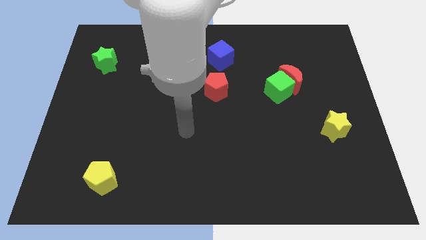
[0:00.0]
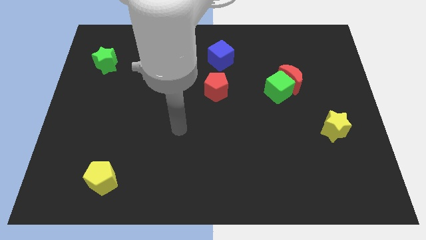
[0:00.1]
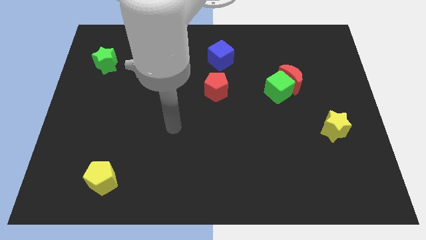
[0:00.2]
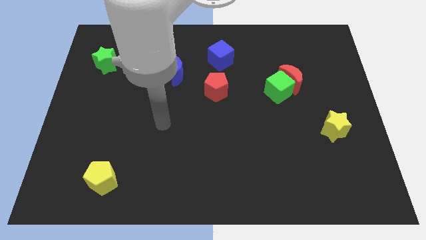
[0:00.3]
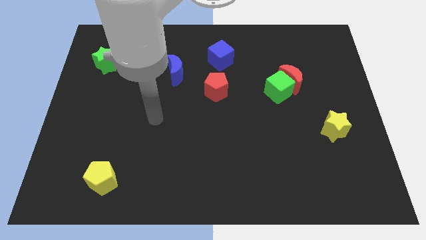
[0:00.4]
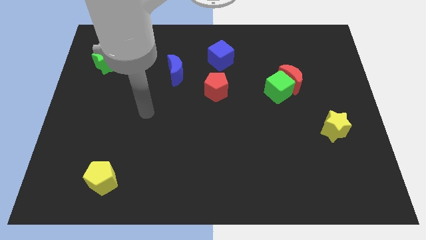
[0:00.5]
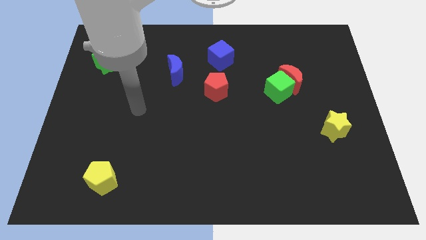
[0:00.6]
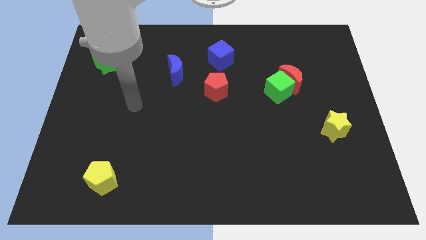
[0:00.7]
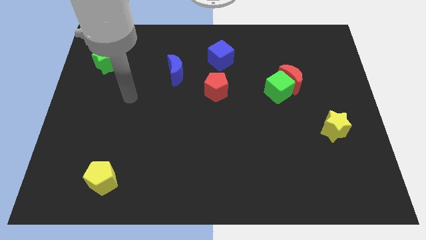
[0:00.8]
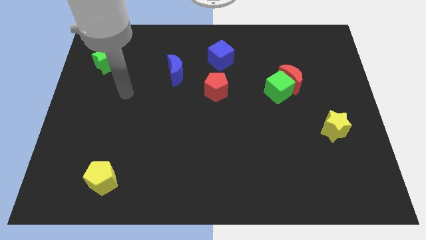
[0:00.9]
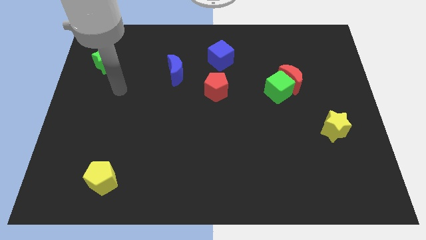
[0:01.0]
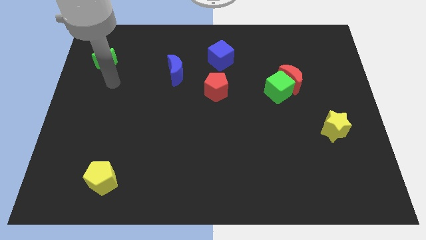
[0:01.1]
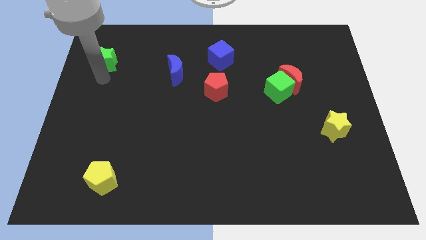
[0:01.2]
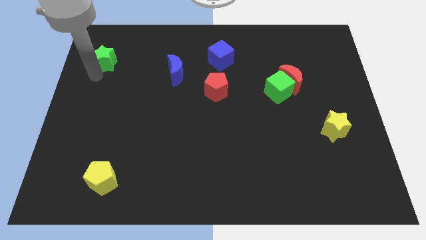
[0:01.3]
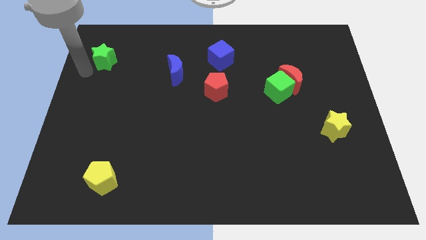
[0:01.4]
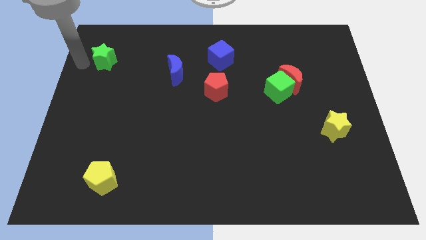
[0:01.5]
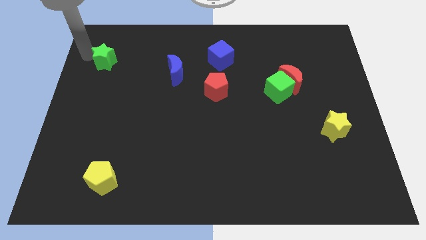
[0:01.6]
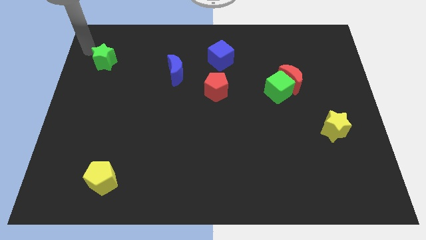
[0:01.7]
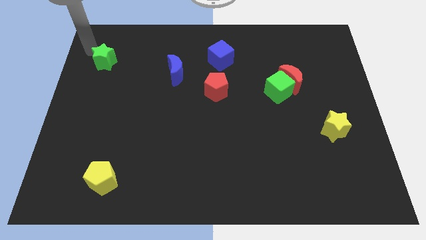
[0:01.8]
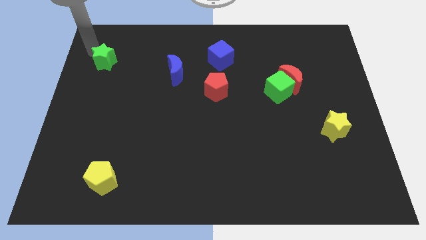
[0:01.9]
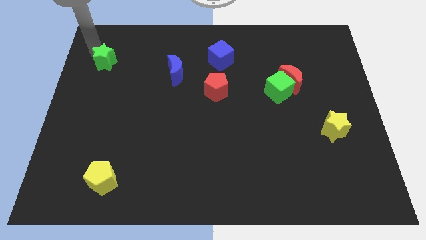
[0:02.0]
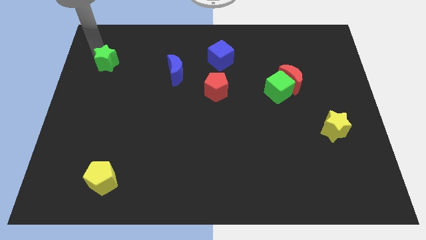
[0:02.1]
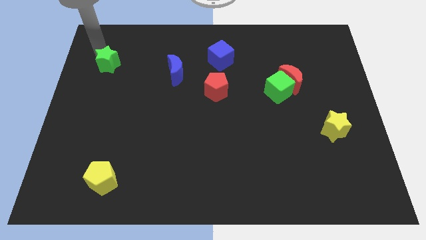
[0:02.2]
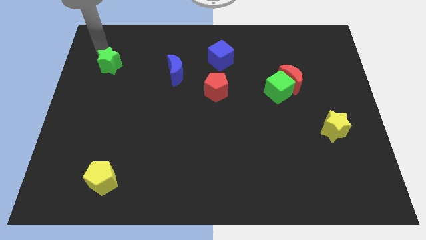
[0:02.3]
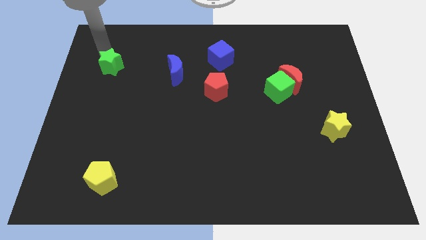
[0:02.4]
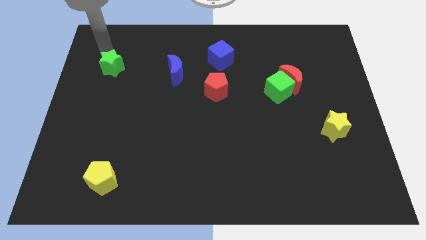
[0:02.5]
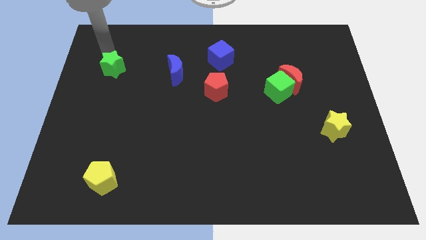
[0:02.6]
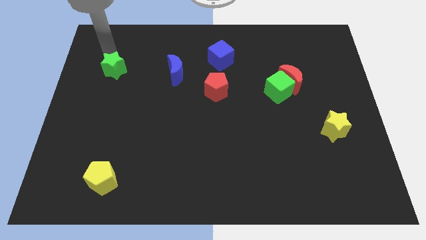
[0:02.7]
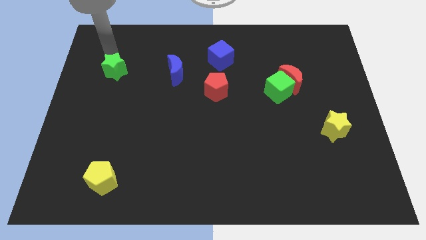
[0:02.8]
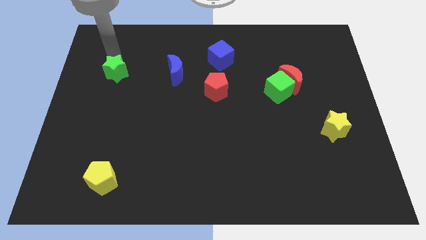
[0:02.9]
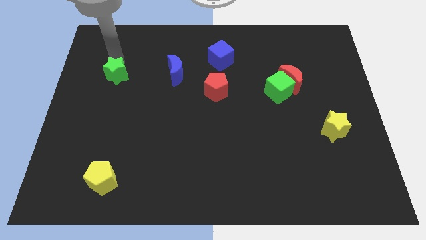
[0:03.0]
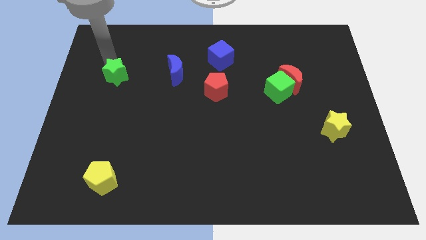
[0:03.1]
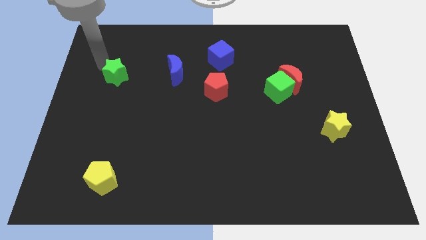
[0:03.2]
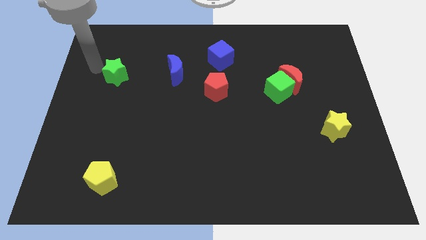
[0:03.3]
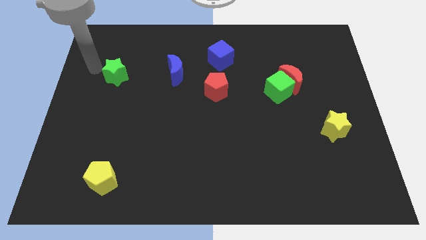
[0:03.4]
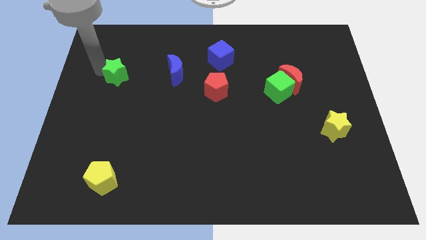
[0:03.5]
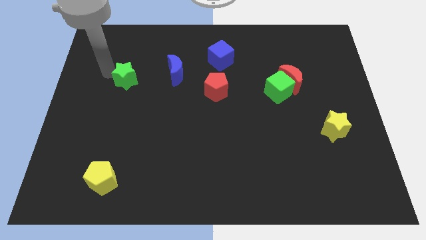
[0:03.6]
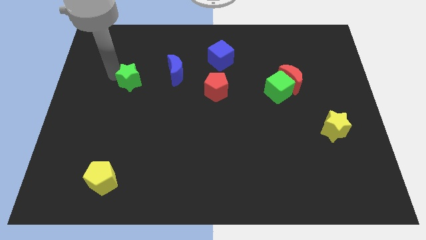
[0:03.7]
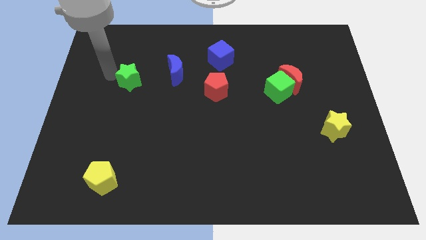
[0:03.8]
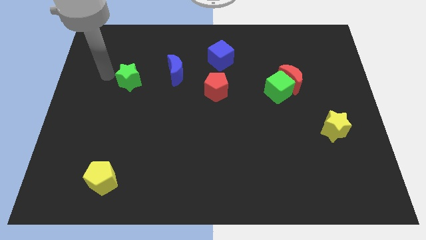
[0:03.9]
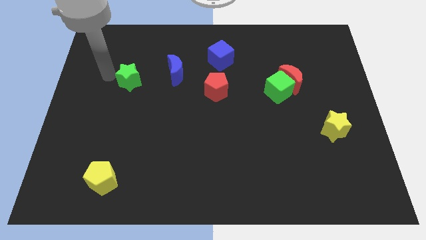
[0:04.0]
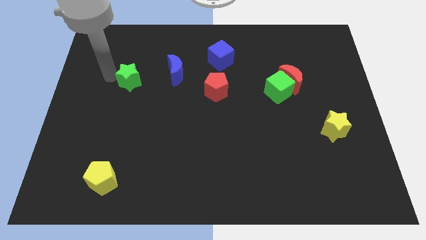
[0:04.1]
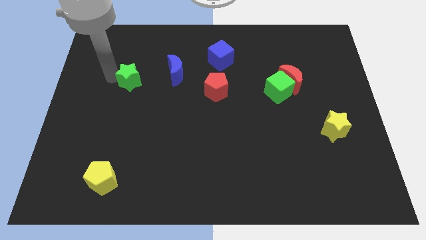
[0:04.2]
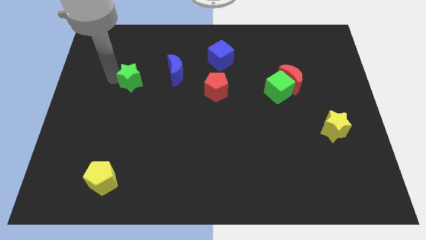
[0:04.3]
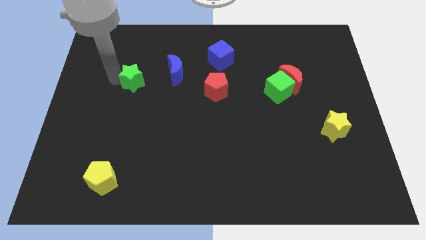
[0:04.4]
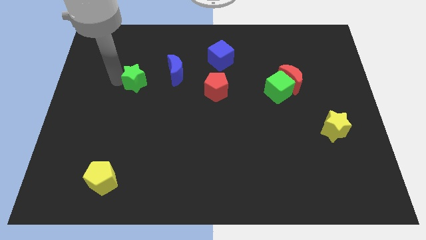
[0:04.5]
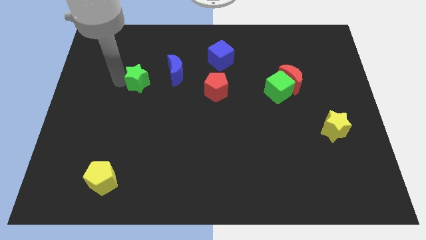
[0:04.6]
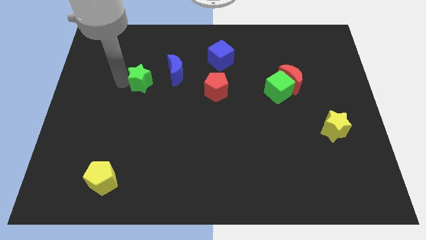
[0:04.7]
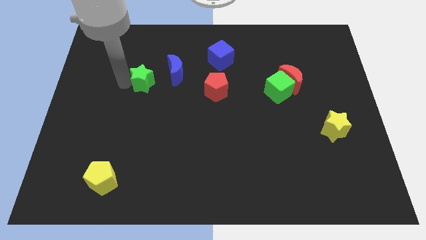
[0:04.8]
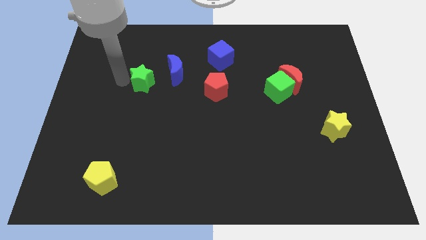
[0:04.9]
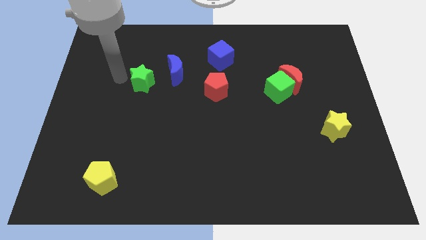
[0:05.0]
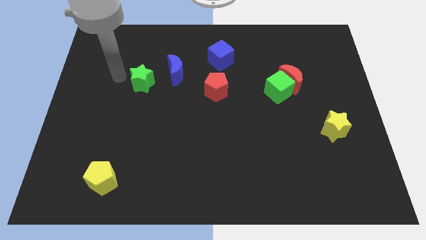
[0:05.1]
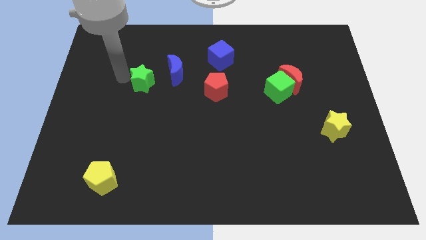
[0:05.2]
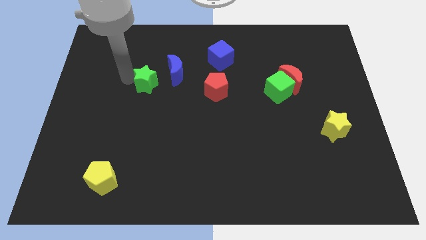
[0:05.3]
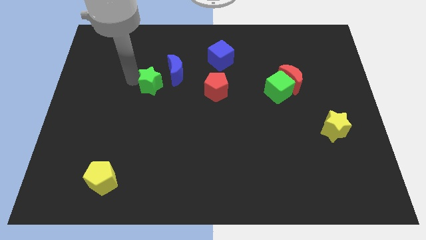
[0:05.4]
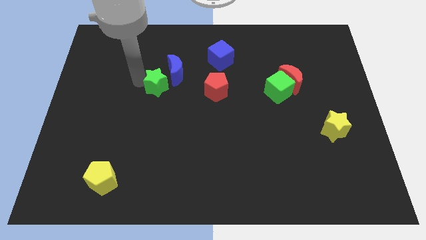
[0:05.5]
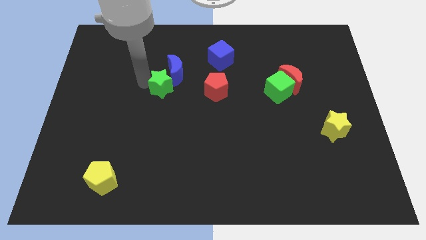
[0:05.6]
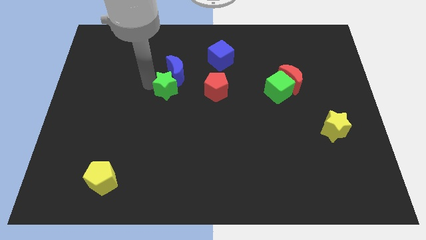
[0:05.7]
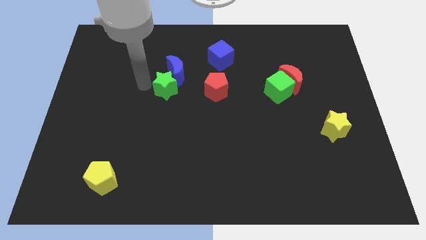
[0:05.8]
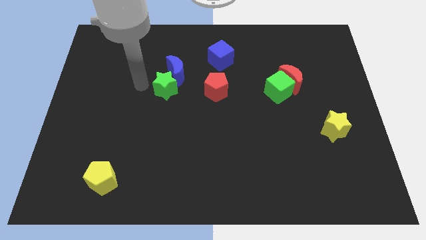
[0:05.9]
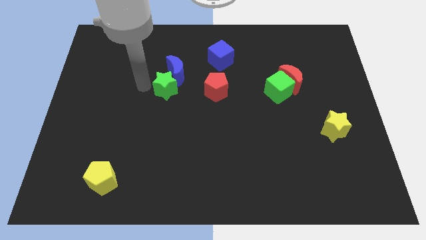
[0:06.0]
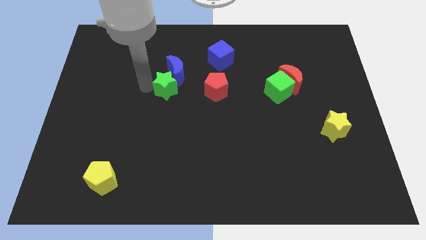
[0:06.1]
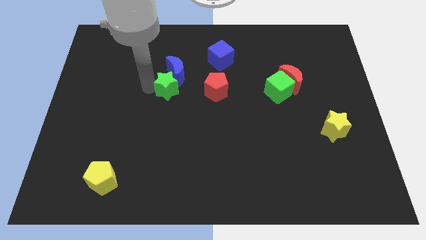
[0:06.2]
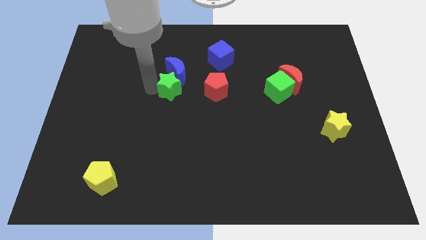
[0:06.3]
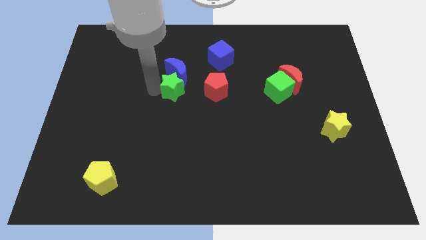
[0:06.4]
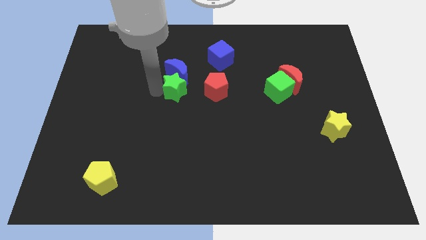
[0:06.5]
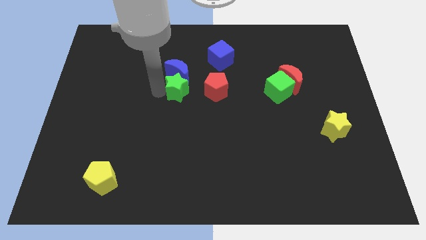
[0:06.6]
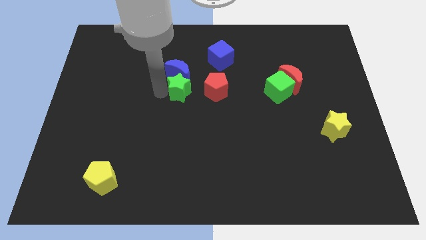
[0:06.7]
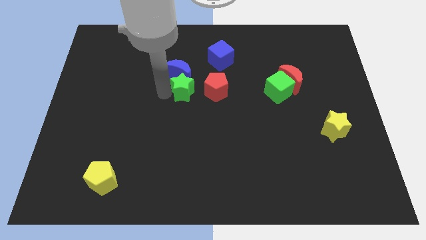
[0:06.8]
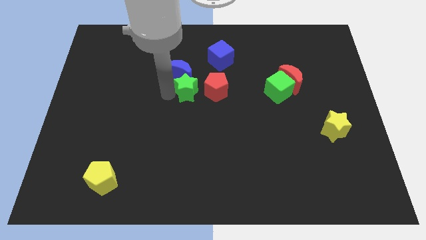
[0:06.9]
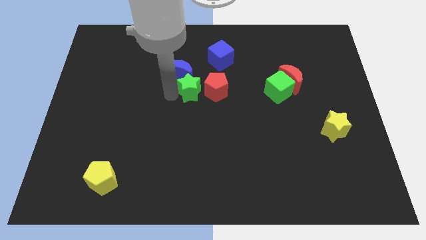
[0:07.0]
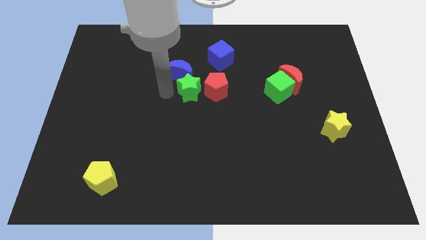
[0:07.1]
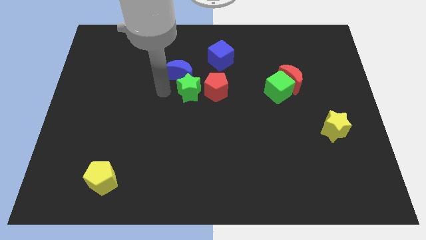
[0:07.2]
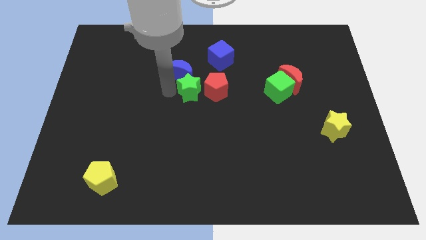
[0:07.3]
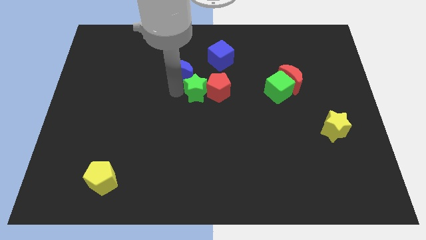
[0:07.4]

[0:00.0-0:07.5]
put the green star towards the red pentagon
